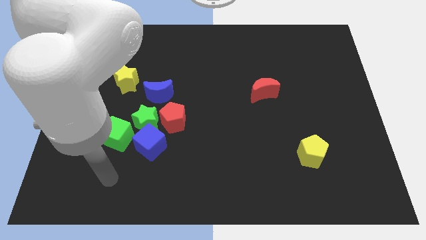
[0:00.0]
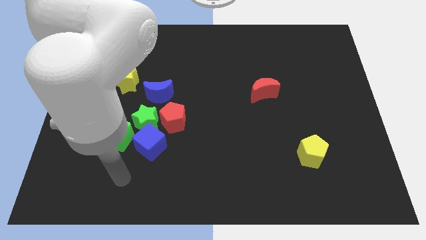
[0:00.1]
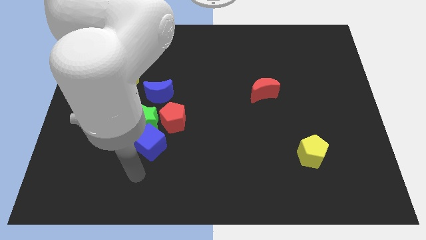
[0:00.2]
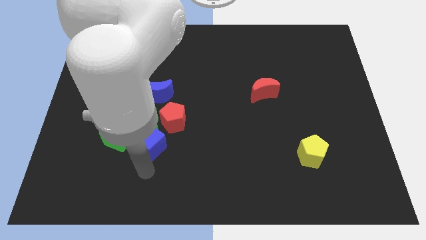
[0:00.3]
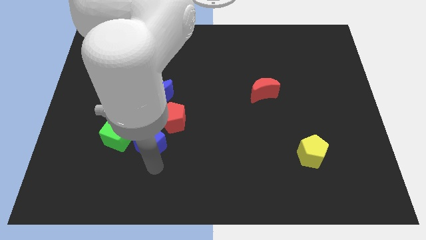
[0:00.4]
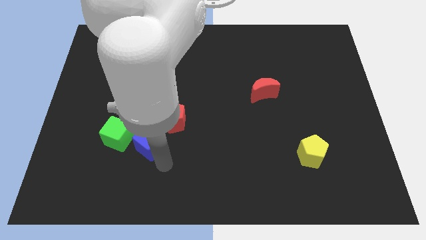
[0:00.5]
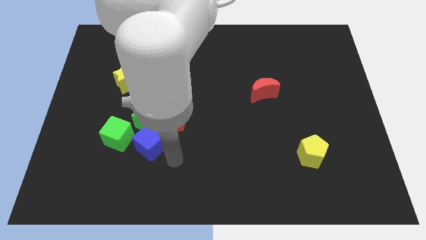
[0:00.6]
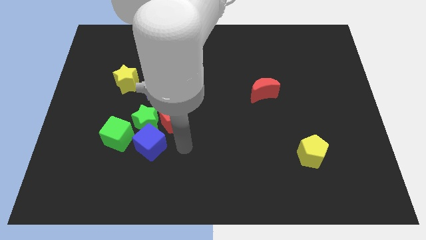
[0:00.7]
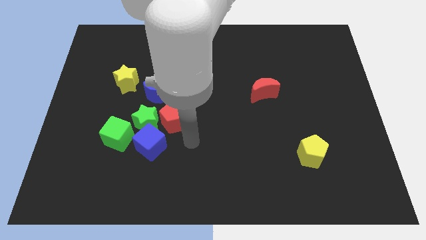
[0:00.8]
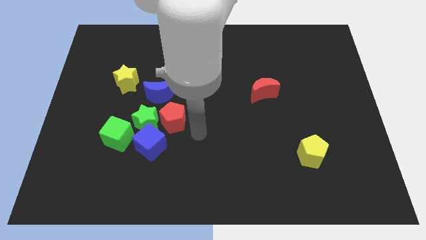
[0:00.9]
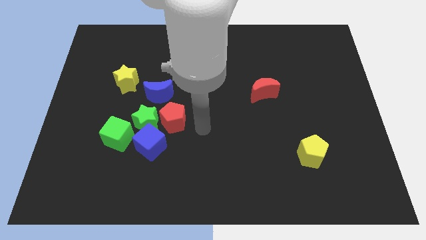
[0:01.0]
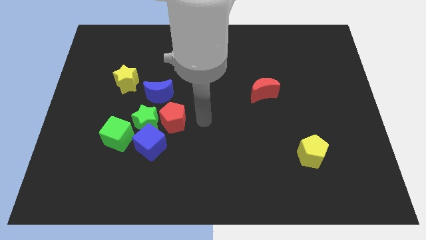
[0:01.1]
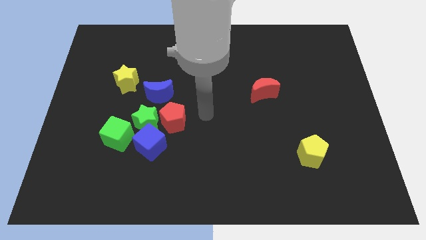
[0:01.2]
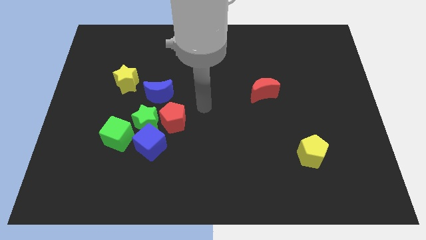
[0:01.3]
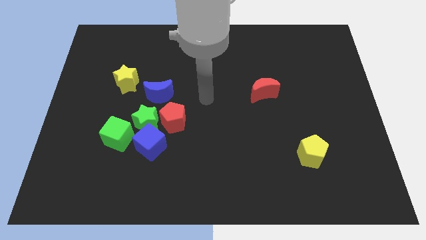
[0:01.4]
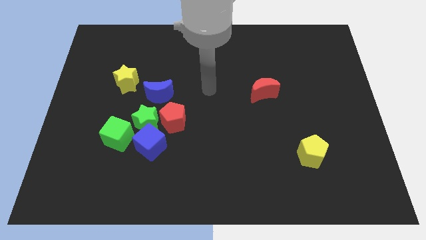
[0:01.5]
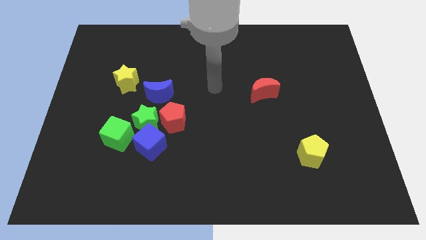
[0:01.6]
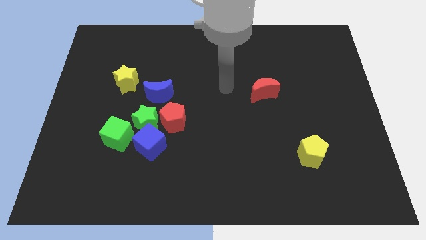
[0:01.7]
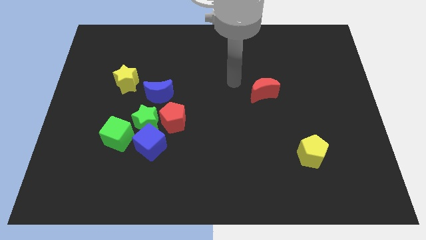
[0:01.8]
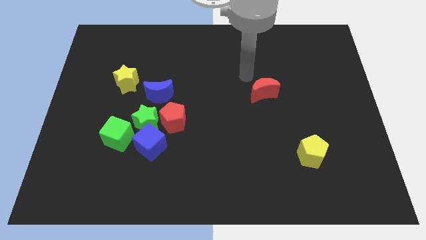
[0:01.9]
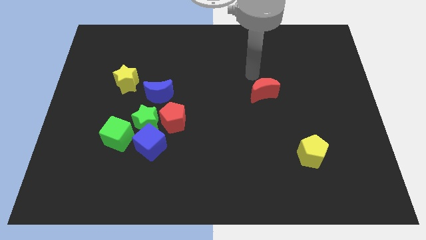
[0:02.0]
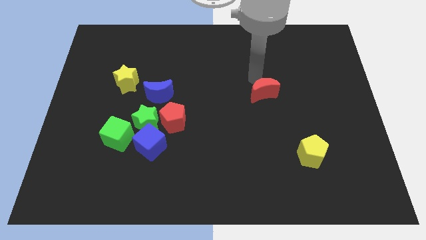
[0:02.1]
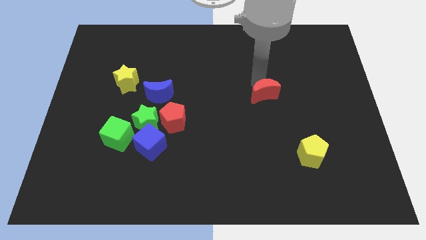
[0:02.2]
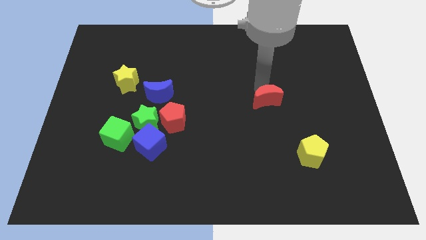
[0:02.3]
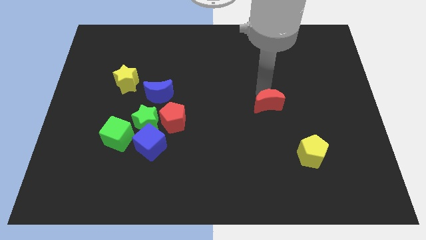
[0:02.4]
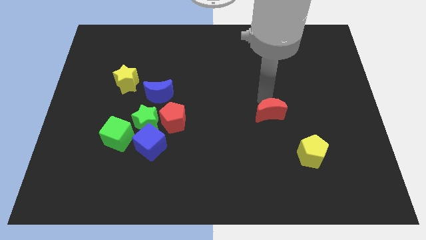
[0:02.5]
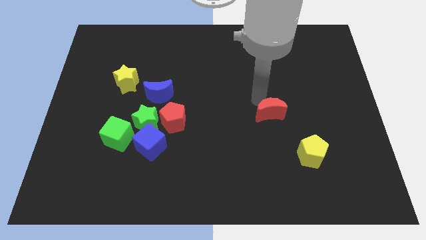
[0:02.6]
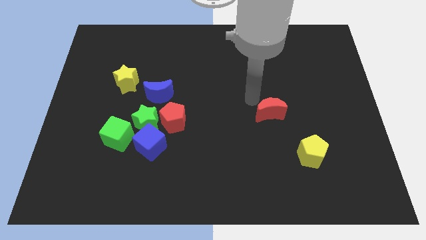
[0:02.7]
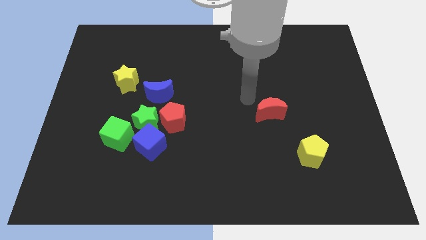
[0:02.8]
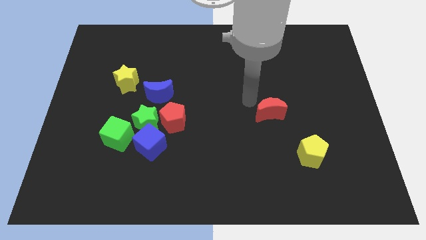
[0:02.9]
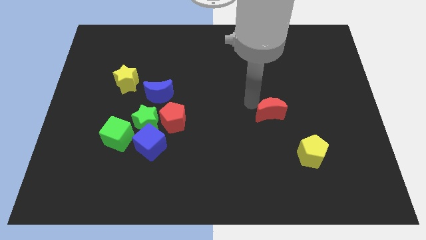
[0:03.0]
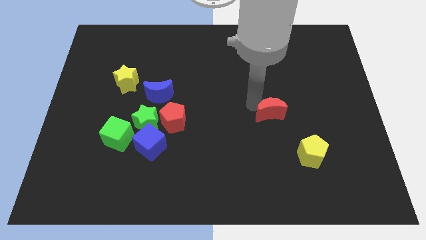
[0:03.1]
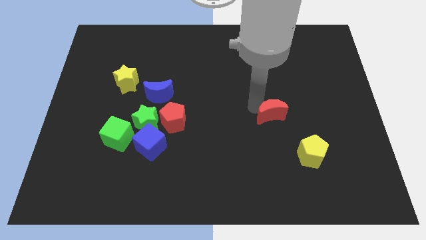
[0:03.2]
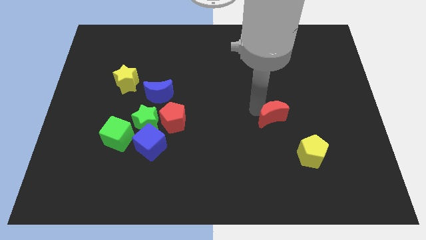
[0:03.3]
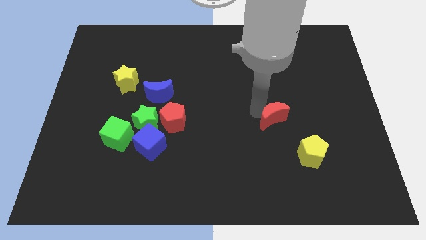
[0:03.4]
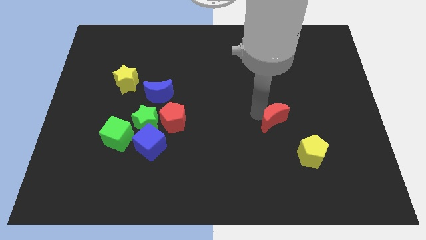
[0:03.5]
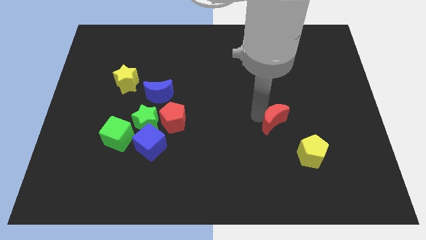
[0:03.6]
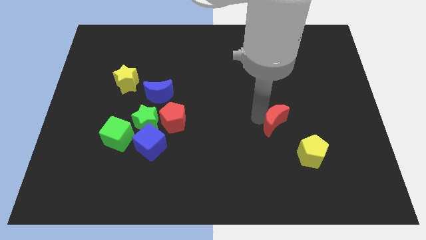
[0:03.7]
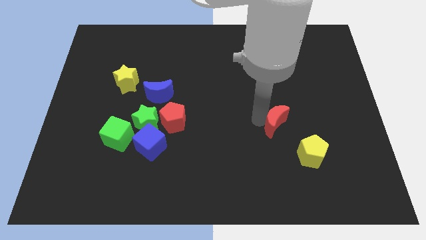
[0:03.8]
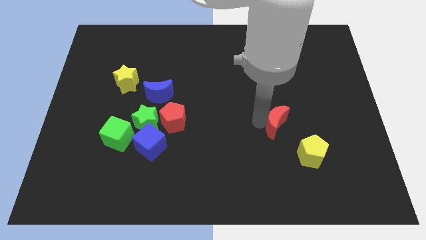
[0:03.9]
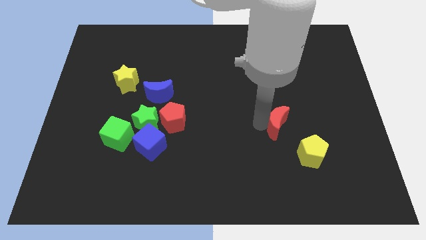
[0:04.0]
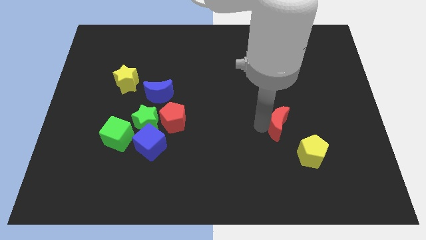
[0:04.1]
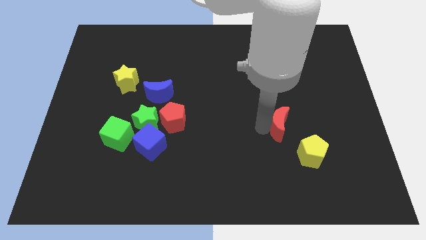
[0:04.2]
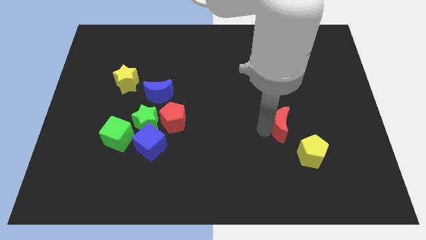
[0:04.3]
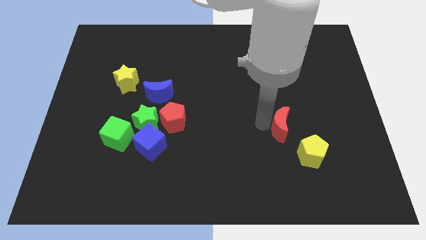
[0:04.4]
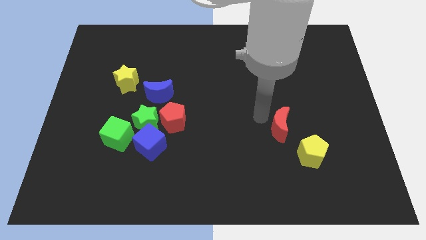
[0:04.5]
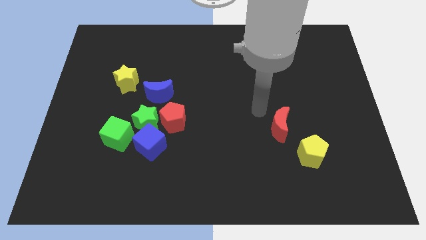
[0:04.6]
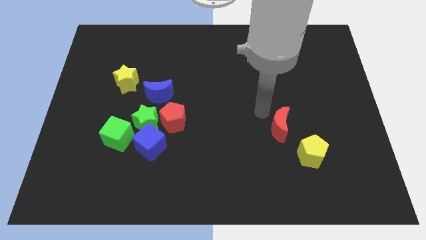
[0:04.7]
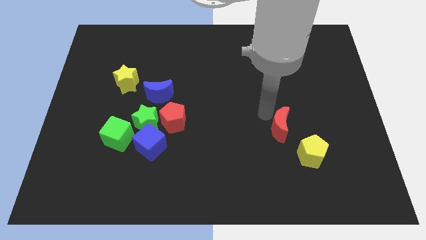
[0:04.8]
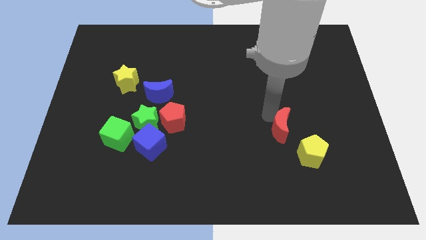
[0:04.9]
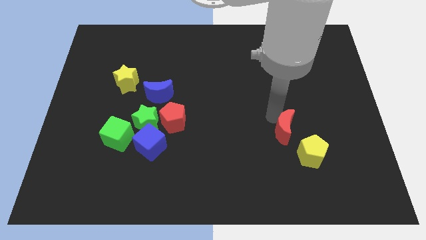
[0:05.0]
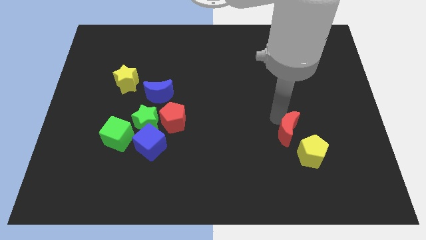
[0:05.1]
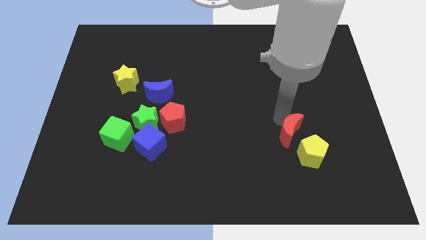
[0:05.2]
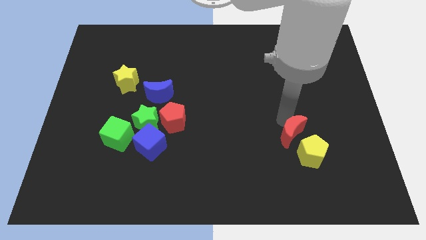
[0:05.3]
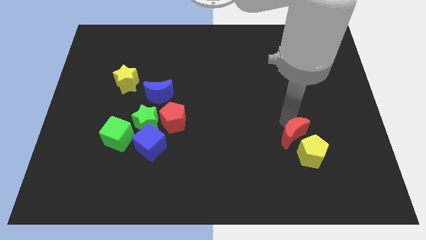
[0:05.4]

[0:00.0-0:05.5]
put the red moon to the yellow pentagon

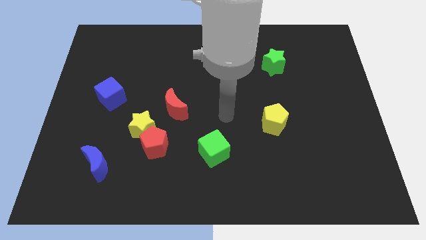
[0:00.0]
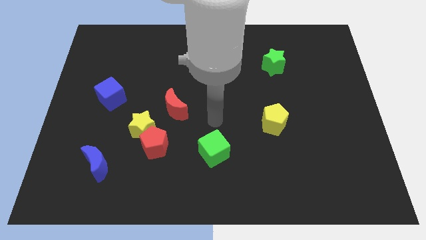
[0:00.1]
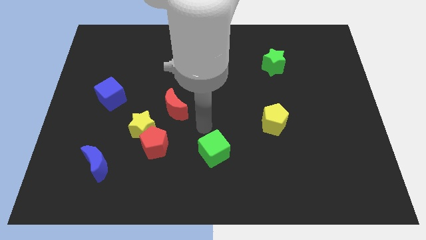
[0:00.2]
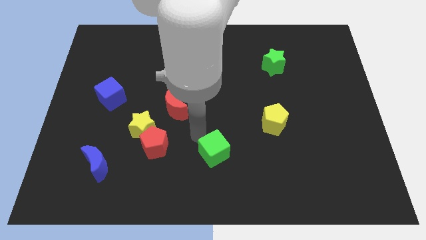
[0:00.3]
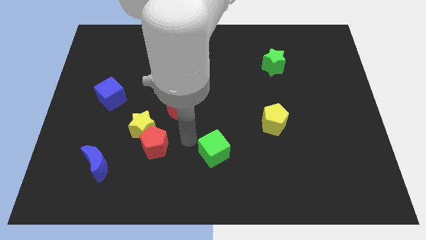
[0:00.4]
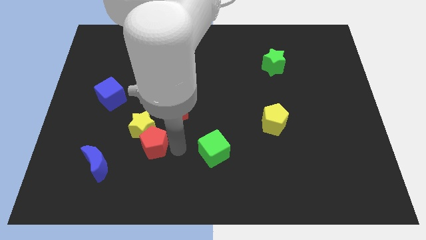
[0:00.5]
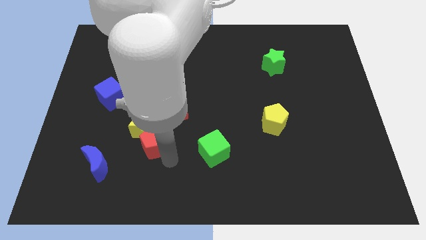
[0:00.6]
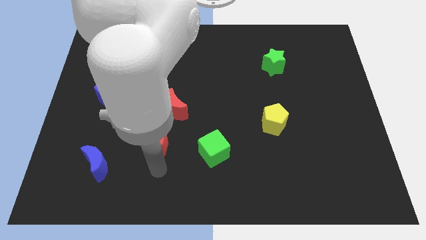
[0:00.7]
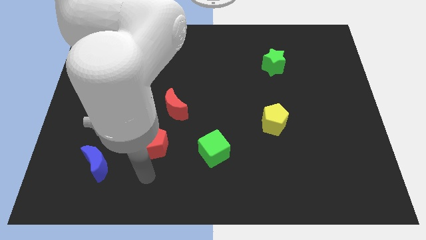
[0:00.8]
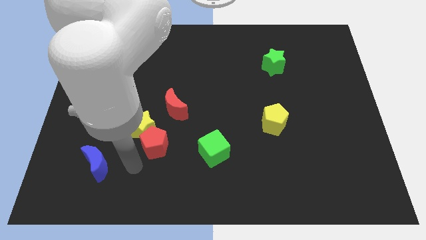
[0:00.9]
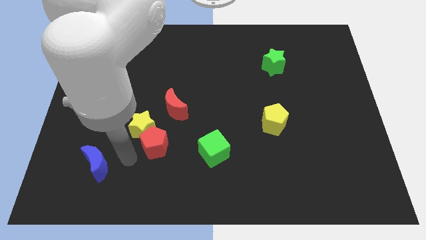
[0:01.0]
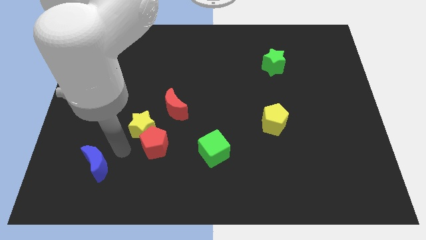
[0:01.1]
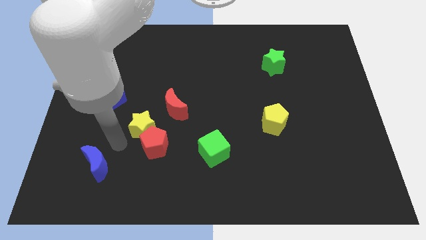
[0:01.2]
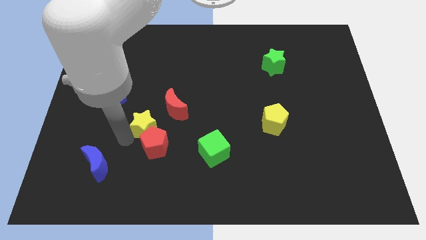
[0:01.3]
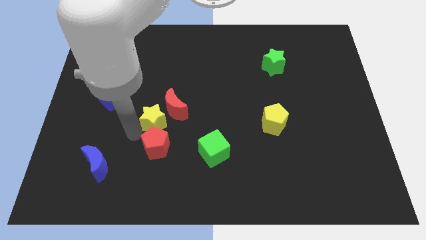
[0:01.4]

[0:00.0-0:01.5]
slide the yellow star next to the red moon
